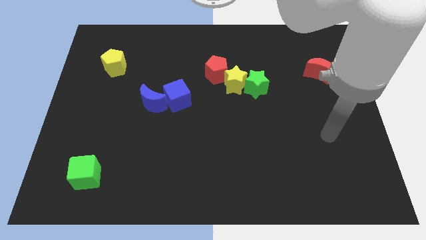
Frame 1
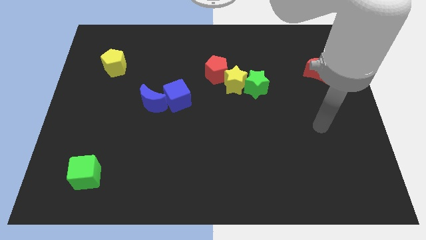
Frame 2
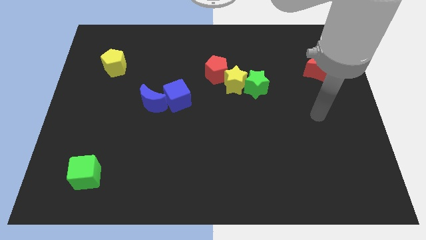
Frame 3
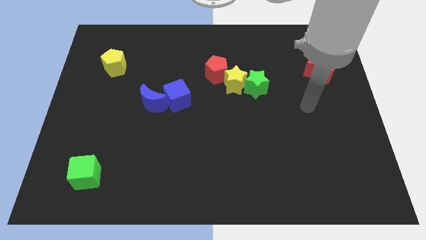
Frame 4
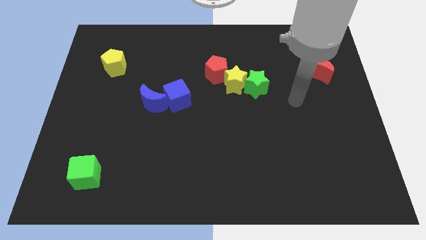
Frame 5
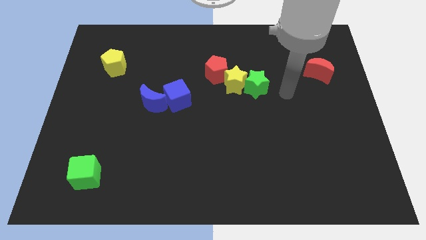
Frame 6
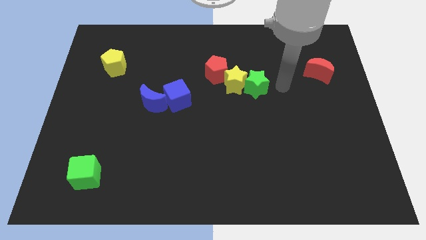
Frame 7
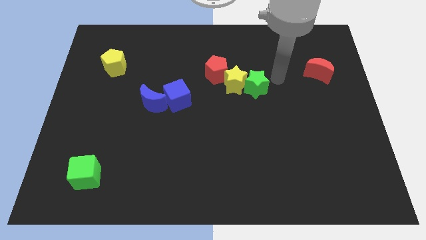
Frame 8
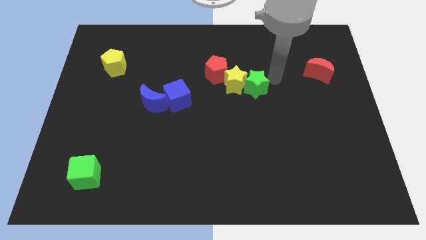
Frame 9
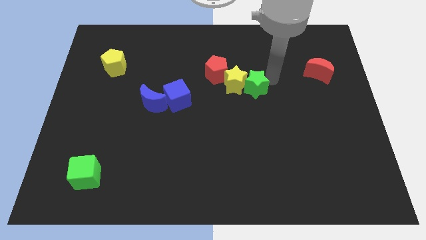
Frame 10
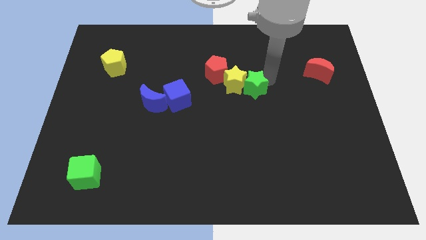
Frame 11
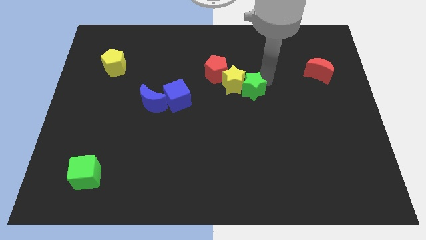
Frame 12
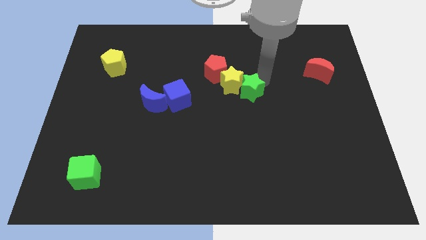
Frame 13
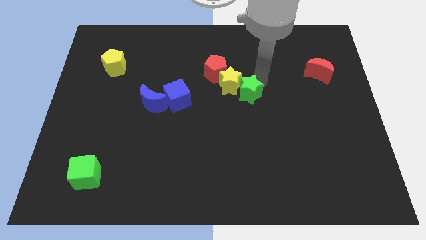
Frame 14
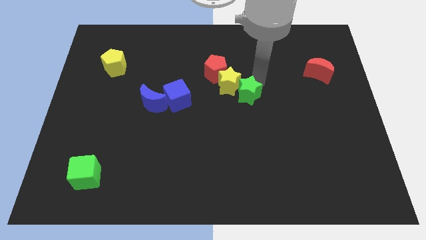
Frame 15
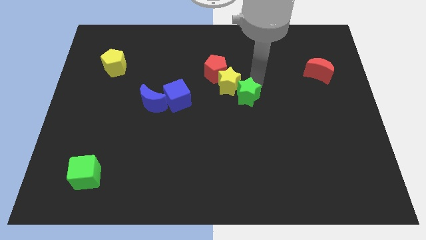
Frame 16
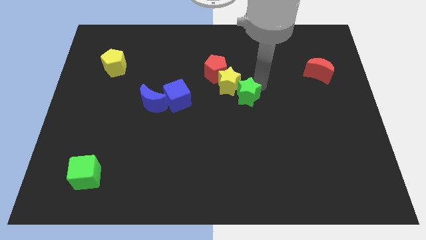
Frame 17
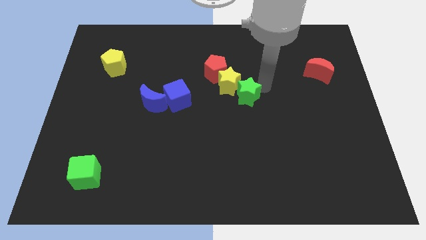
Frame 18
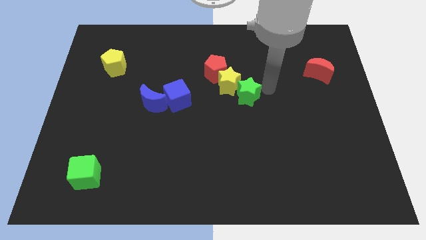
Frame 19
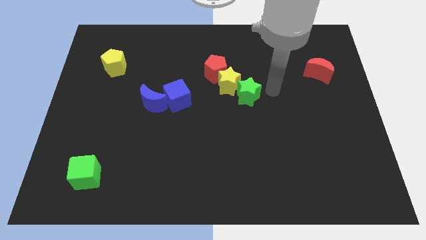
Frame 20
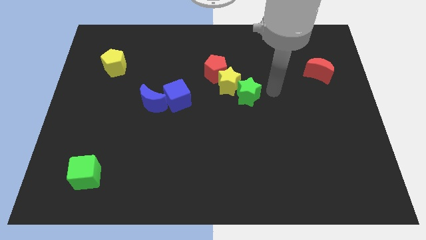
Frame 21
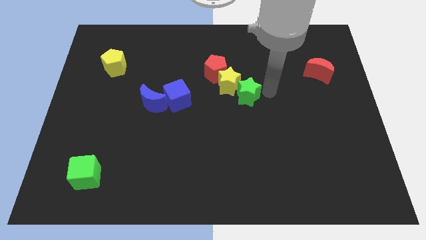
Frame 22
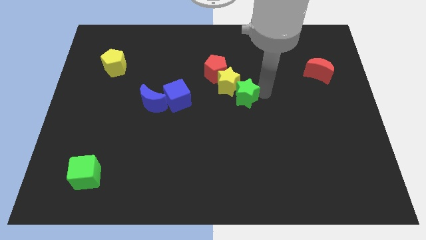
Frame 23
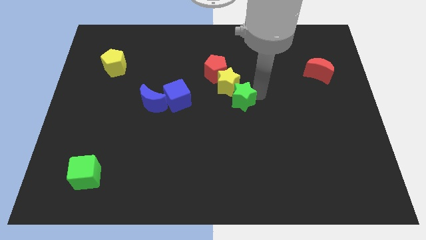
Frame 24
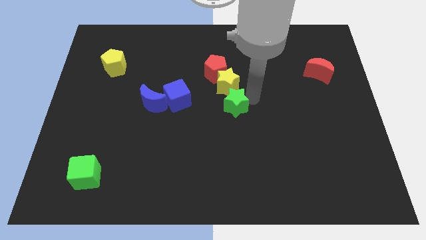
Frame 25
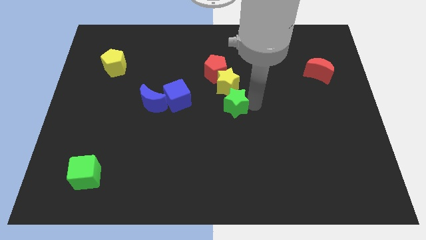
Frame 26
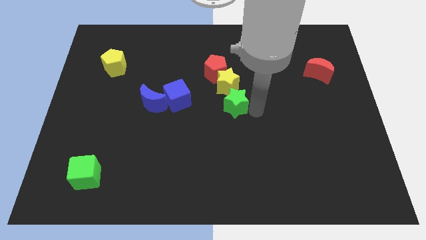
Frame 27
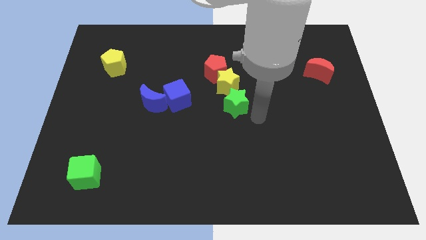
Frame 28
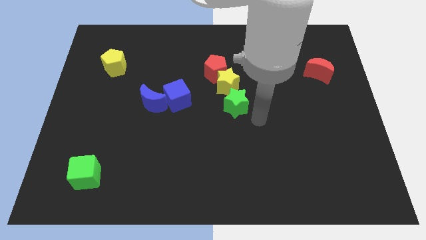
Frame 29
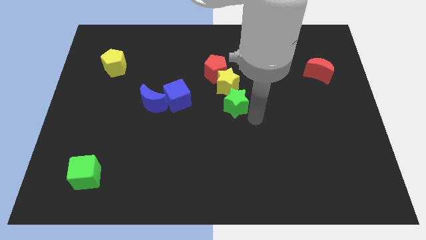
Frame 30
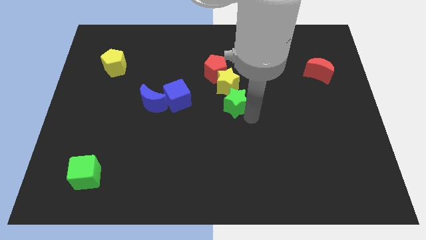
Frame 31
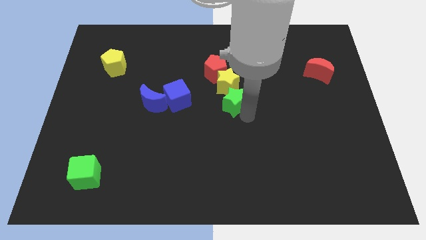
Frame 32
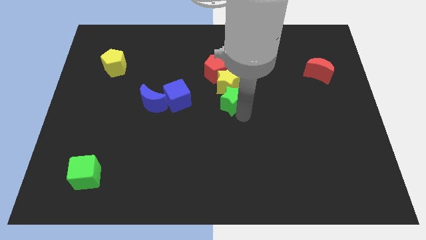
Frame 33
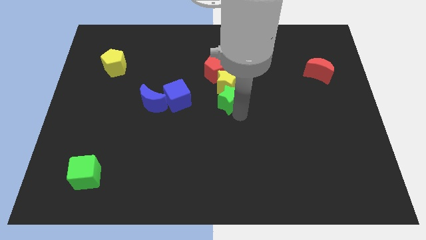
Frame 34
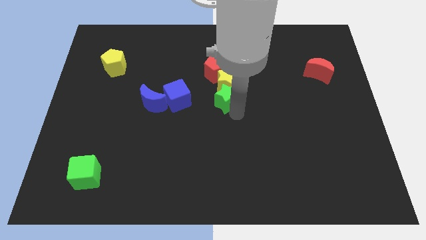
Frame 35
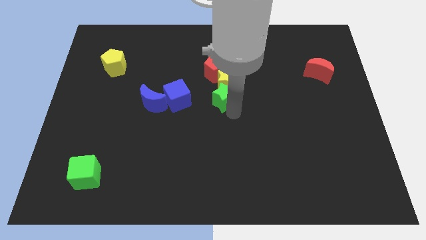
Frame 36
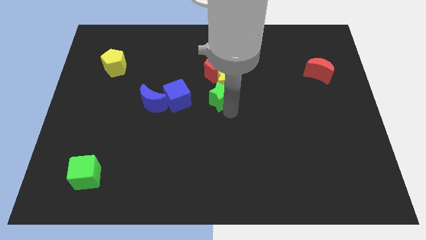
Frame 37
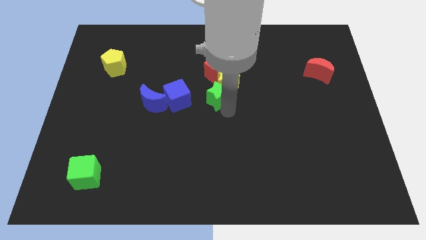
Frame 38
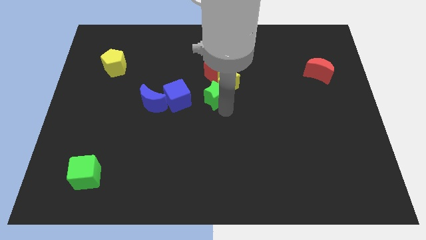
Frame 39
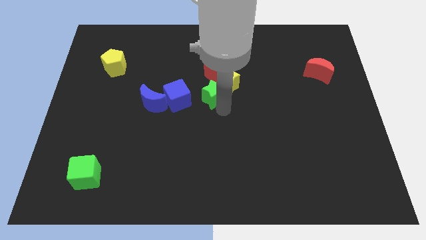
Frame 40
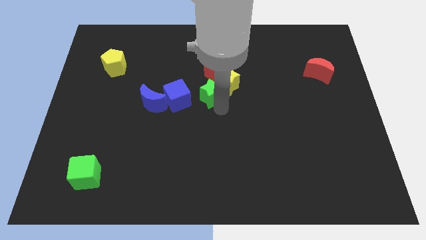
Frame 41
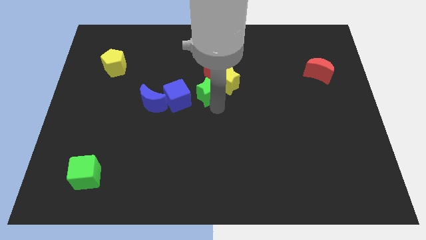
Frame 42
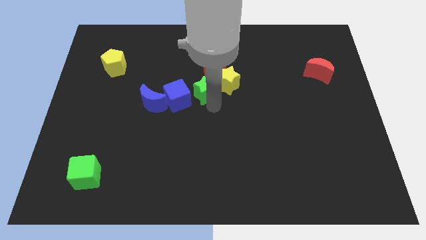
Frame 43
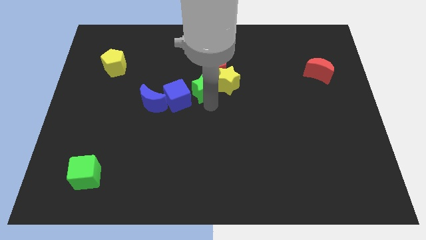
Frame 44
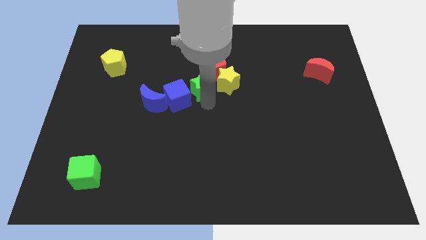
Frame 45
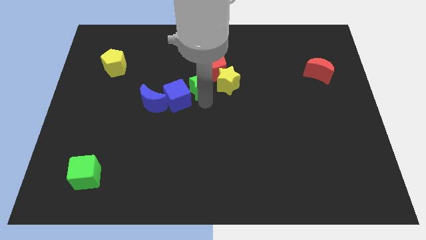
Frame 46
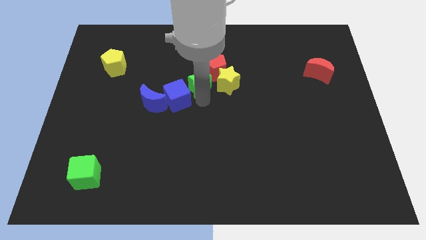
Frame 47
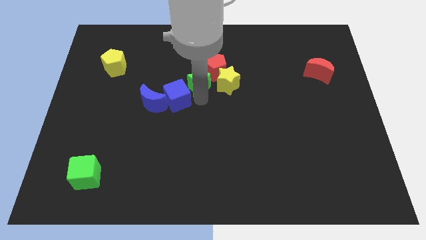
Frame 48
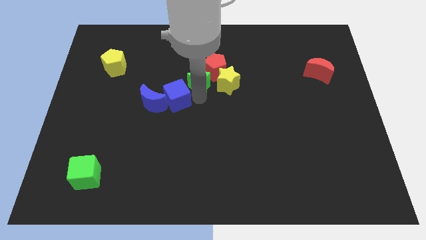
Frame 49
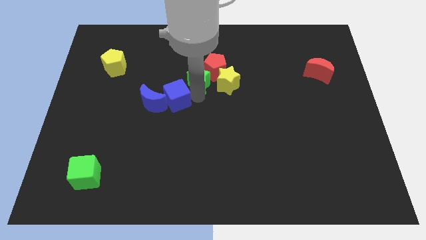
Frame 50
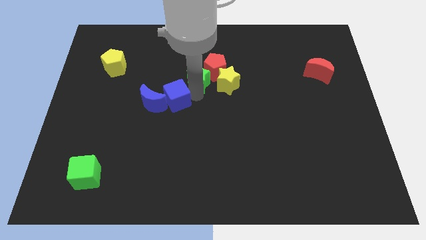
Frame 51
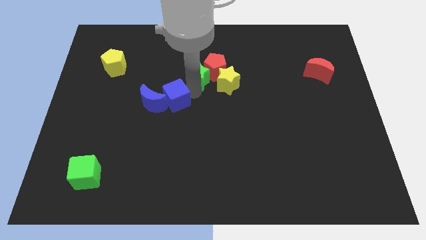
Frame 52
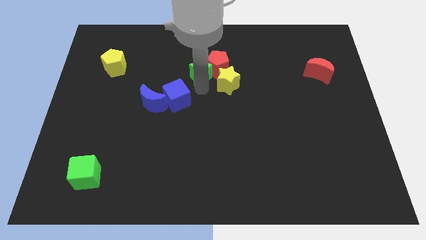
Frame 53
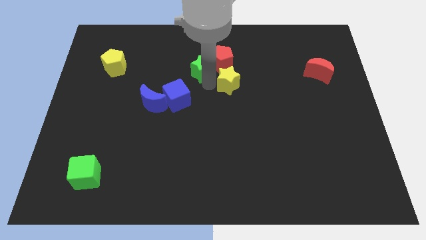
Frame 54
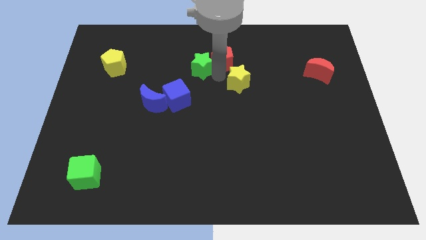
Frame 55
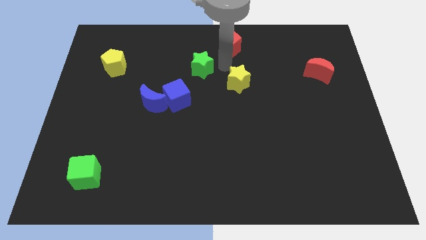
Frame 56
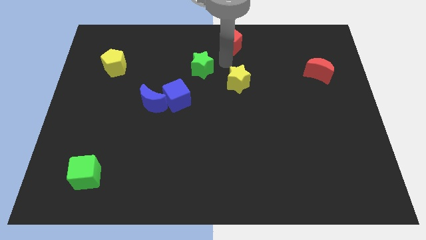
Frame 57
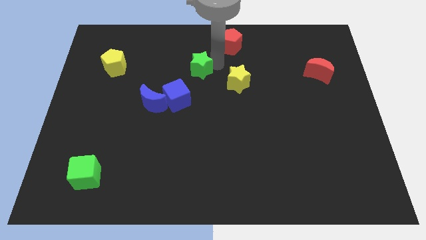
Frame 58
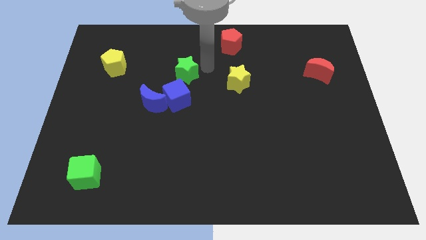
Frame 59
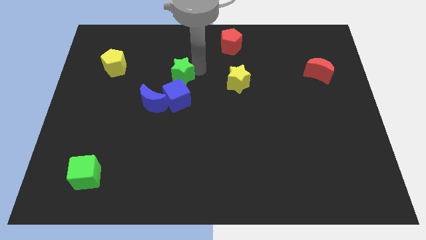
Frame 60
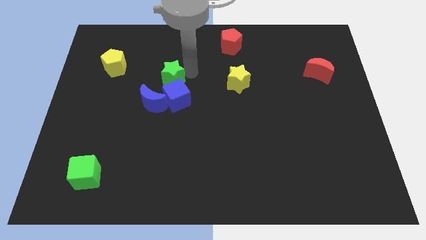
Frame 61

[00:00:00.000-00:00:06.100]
slide the green star to the left

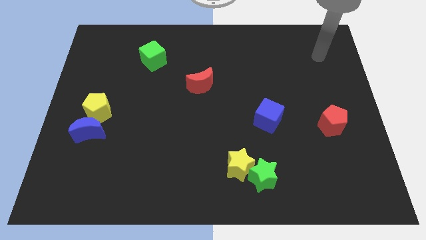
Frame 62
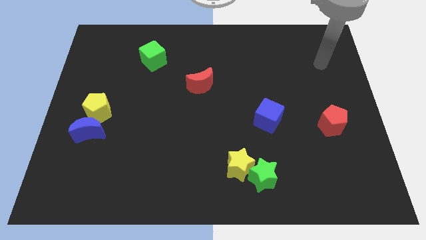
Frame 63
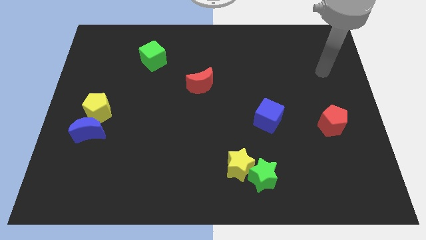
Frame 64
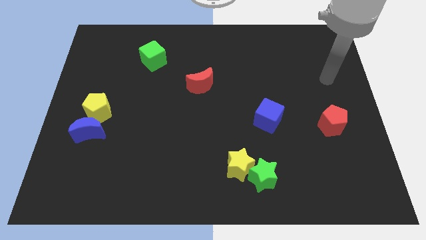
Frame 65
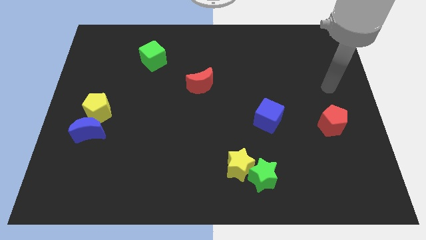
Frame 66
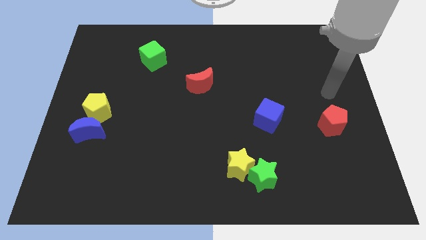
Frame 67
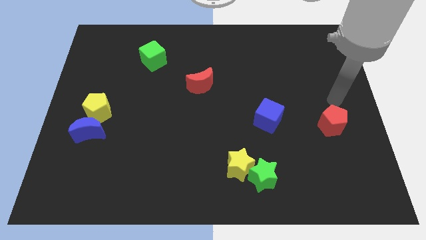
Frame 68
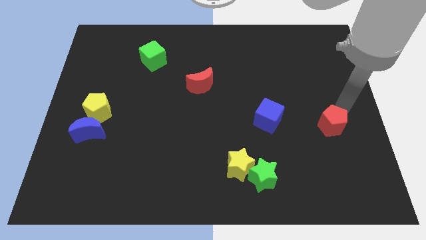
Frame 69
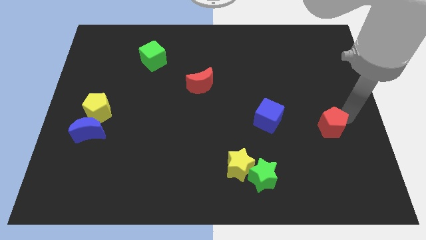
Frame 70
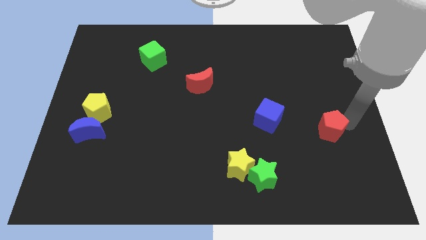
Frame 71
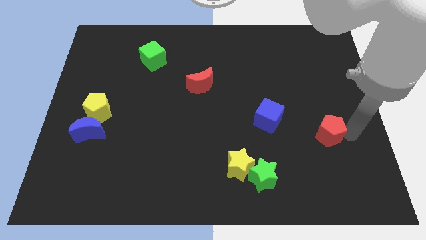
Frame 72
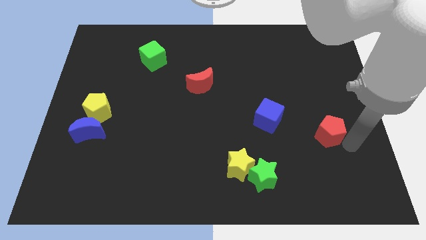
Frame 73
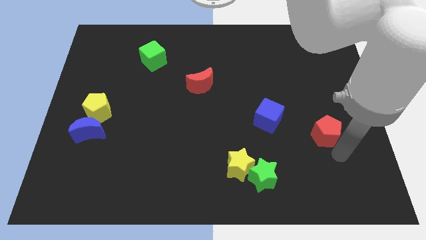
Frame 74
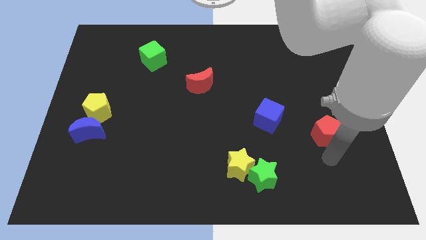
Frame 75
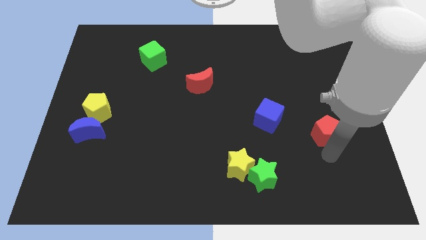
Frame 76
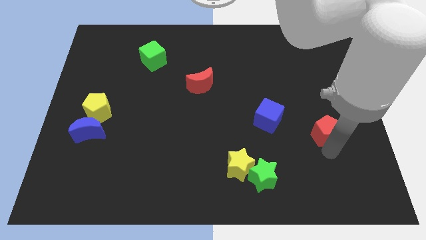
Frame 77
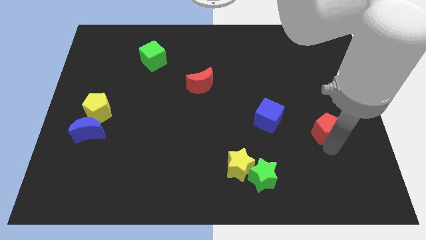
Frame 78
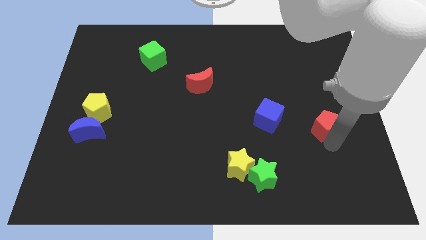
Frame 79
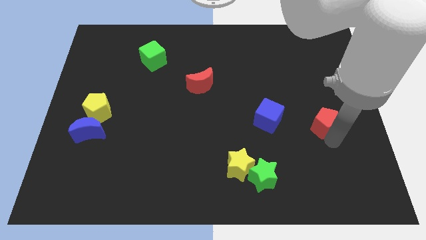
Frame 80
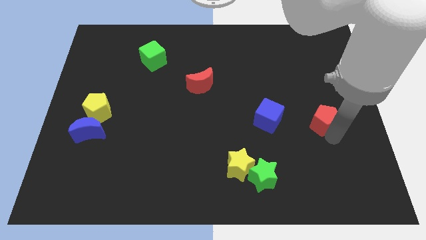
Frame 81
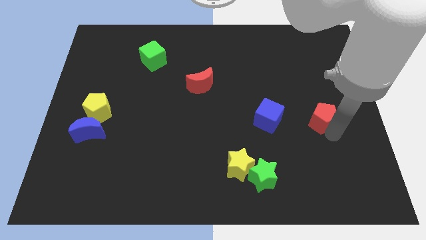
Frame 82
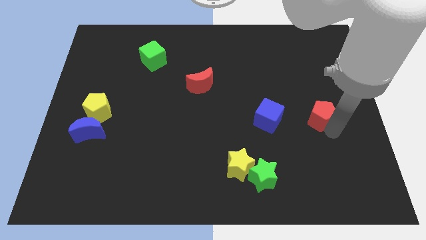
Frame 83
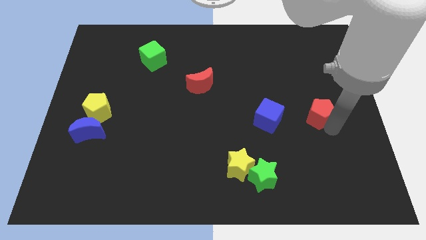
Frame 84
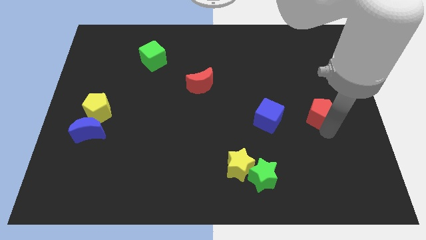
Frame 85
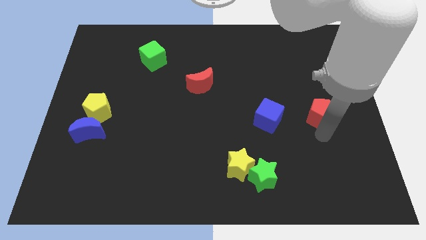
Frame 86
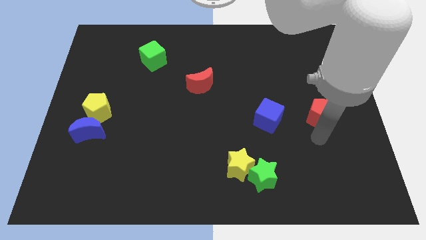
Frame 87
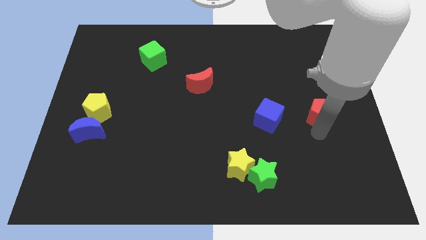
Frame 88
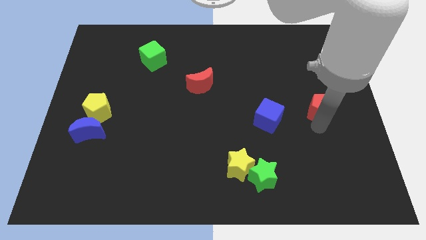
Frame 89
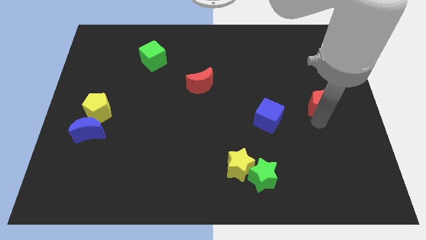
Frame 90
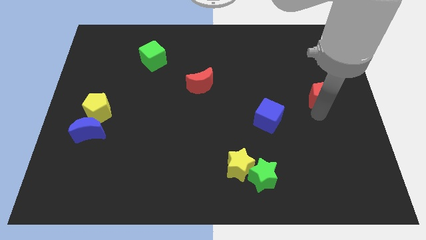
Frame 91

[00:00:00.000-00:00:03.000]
move the red pentagon up a little bit
